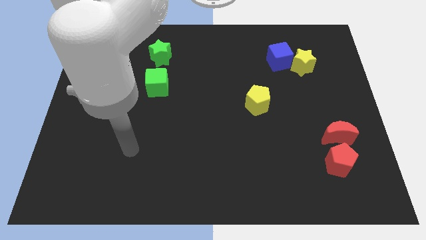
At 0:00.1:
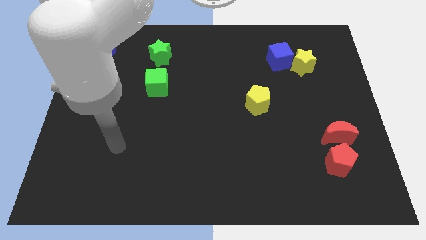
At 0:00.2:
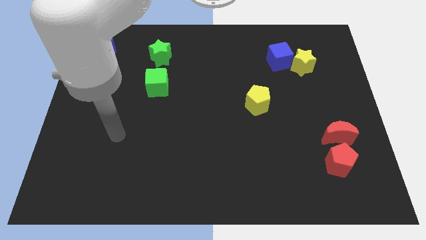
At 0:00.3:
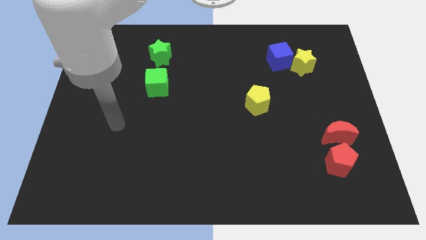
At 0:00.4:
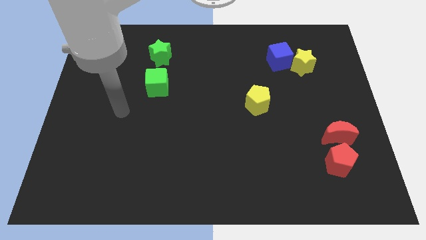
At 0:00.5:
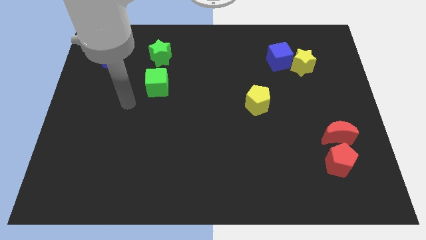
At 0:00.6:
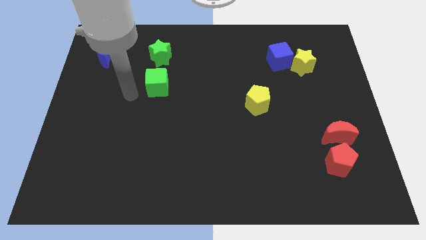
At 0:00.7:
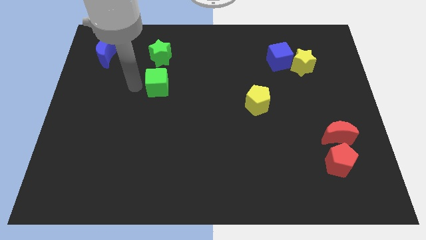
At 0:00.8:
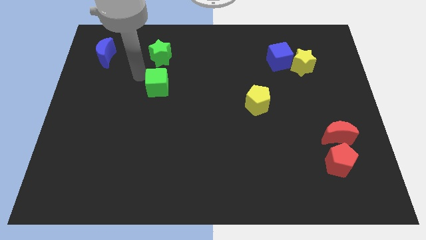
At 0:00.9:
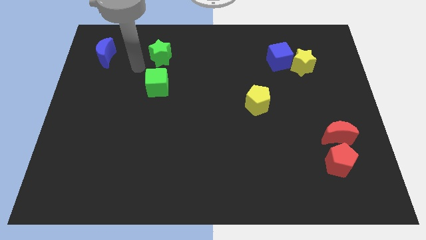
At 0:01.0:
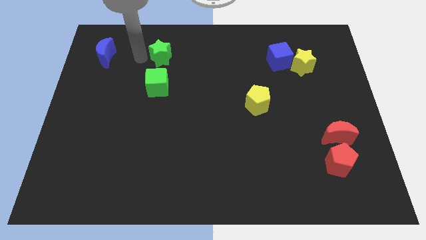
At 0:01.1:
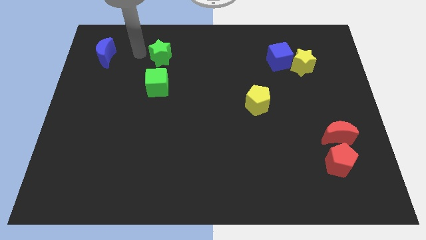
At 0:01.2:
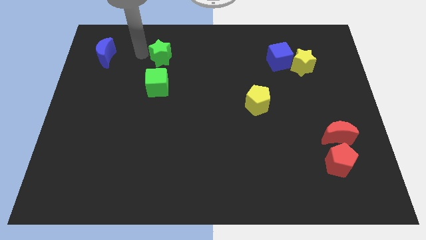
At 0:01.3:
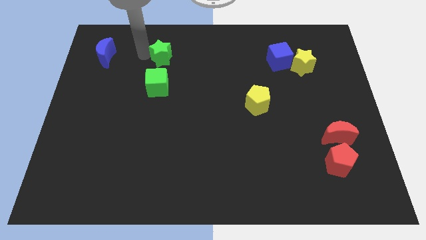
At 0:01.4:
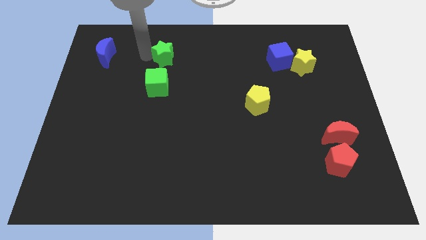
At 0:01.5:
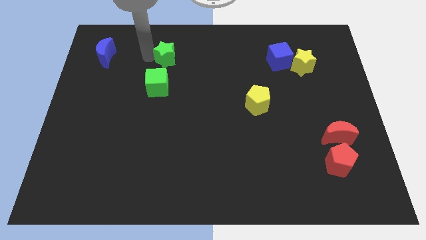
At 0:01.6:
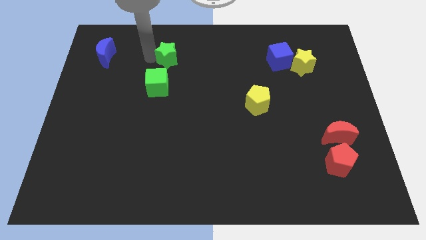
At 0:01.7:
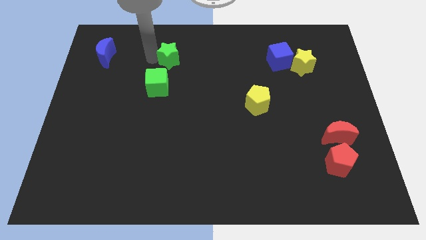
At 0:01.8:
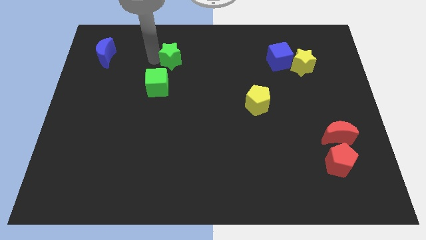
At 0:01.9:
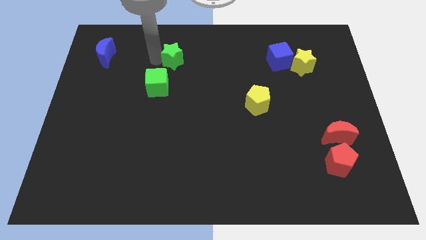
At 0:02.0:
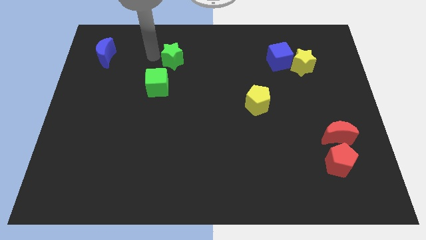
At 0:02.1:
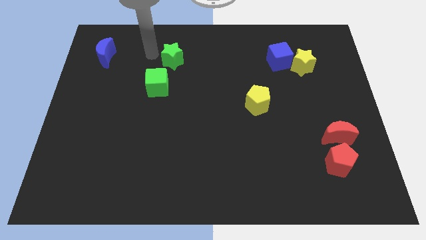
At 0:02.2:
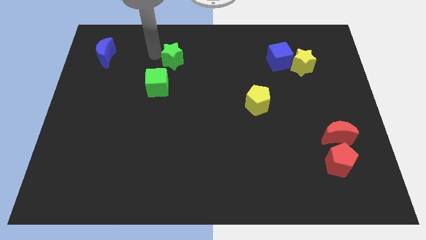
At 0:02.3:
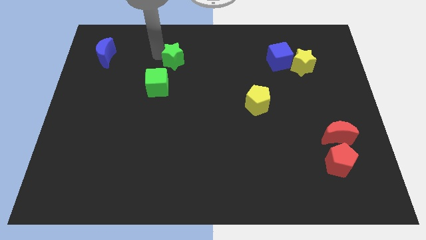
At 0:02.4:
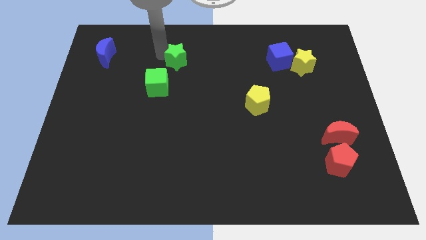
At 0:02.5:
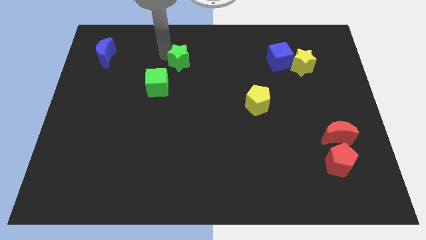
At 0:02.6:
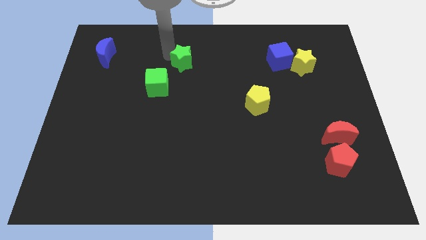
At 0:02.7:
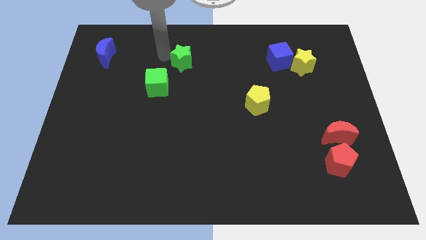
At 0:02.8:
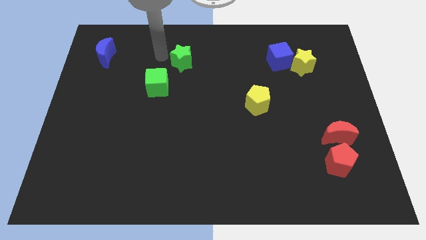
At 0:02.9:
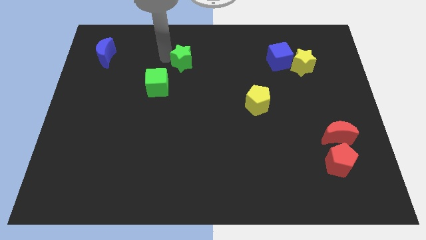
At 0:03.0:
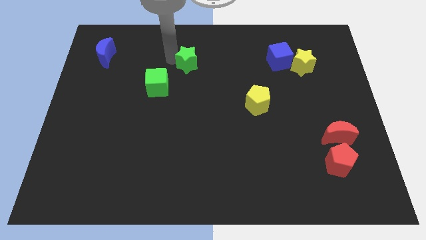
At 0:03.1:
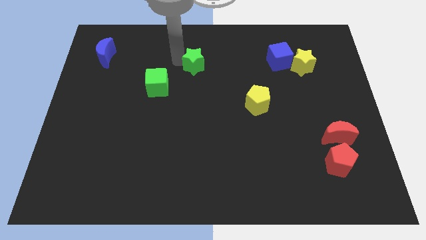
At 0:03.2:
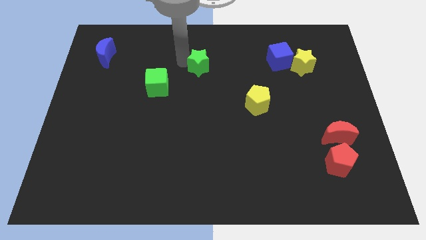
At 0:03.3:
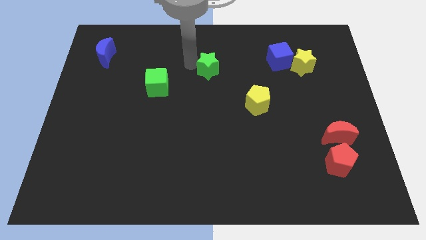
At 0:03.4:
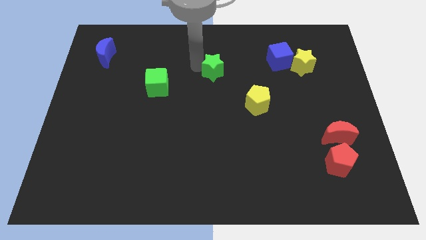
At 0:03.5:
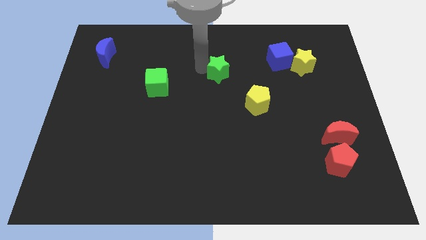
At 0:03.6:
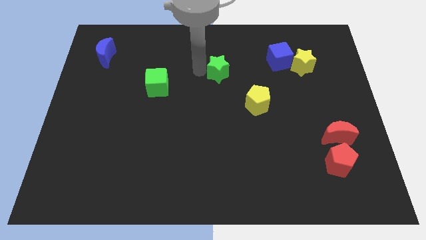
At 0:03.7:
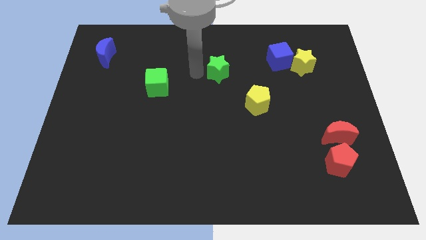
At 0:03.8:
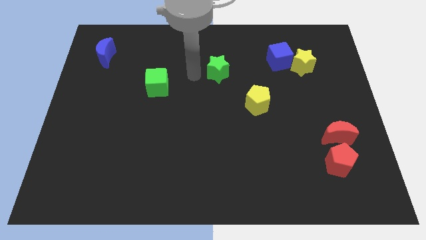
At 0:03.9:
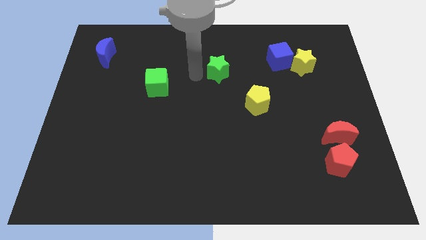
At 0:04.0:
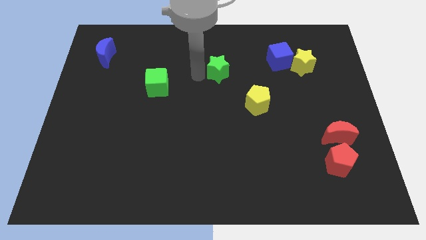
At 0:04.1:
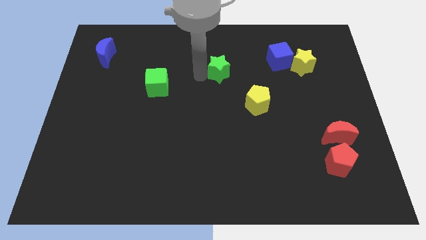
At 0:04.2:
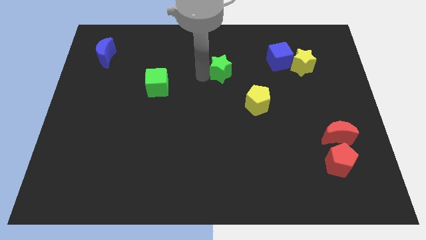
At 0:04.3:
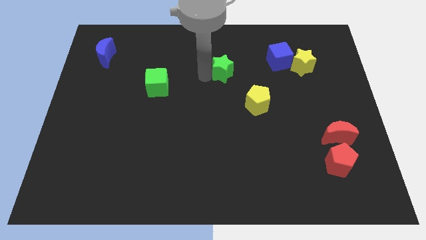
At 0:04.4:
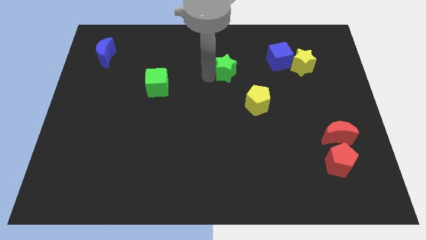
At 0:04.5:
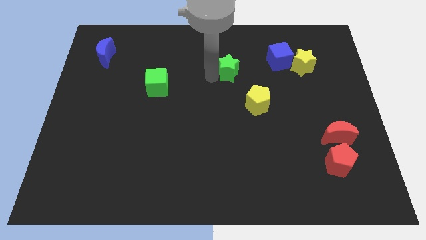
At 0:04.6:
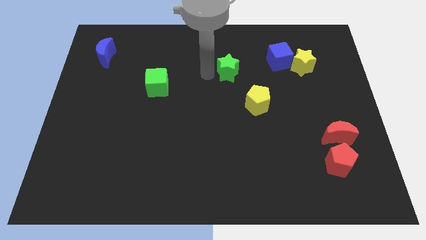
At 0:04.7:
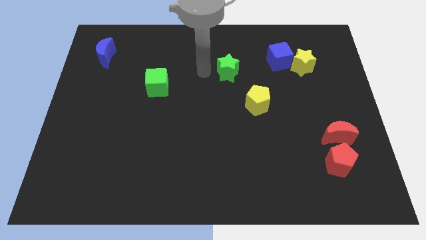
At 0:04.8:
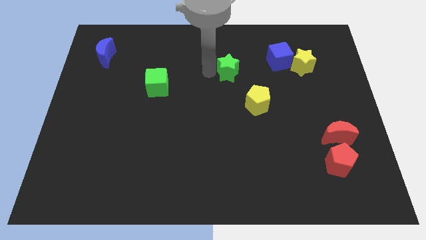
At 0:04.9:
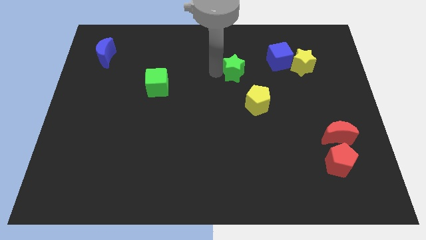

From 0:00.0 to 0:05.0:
put the green star to the top side of the yellow pentagon

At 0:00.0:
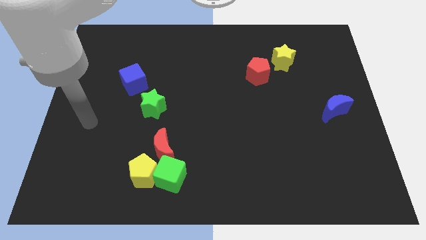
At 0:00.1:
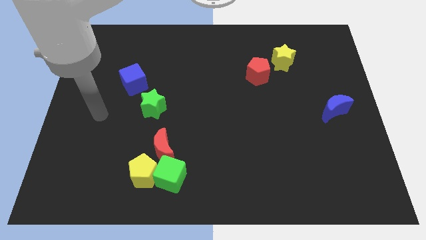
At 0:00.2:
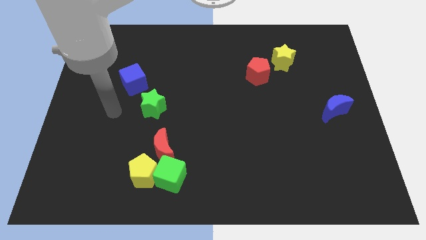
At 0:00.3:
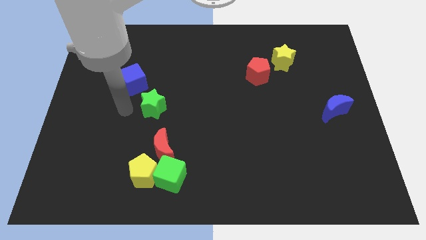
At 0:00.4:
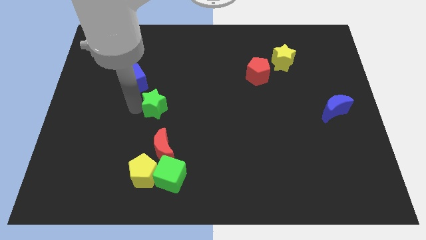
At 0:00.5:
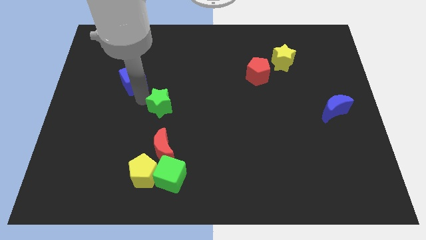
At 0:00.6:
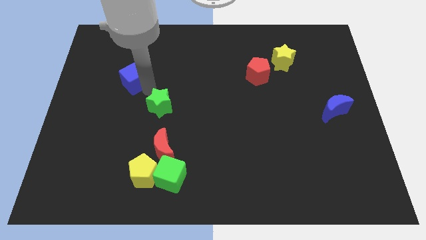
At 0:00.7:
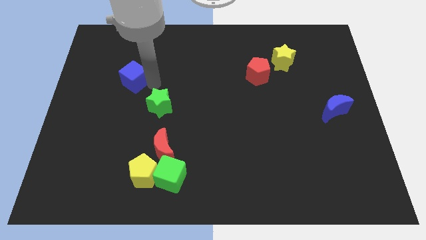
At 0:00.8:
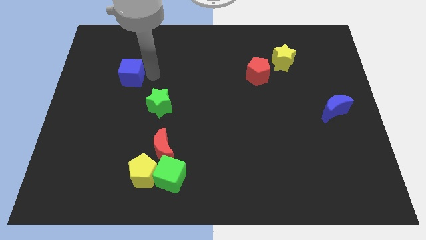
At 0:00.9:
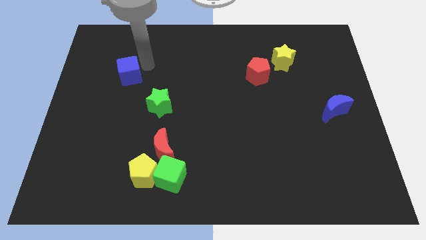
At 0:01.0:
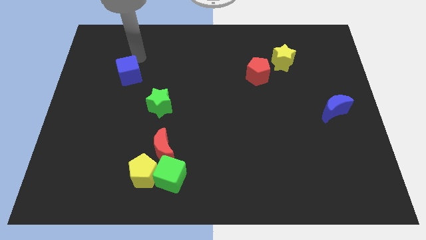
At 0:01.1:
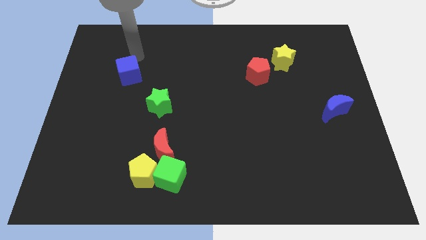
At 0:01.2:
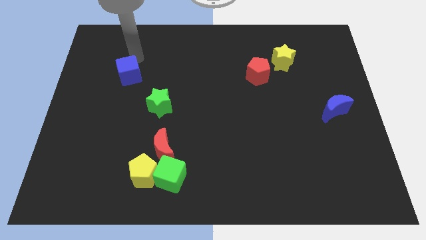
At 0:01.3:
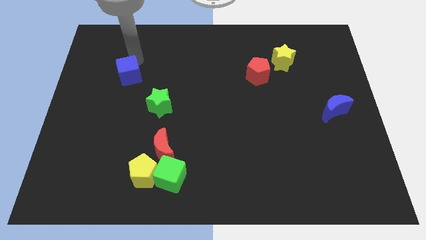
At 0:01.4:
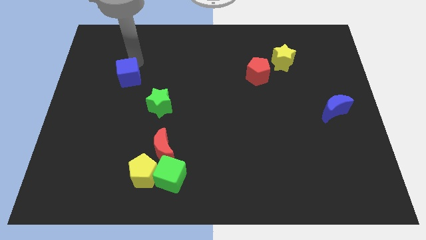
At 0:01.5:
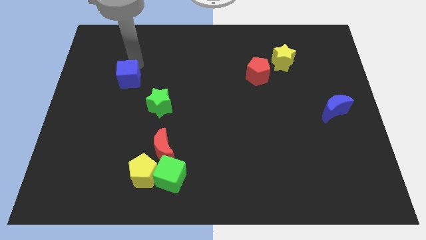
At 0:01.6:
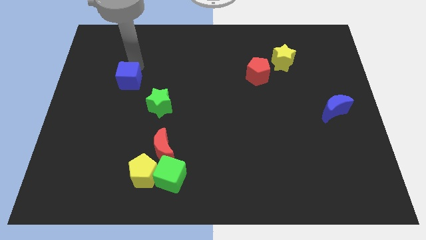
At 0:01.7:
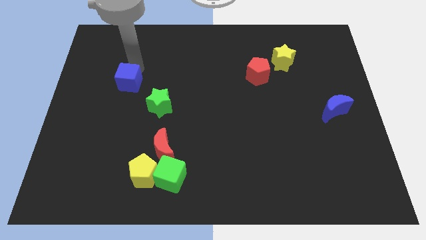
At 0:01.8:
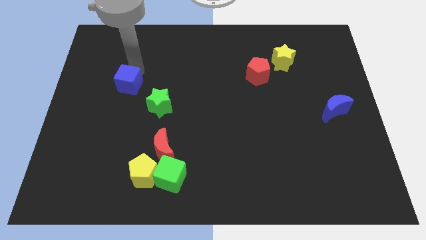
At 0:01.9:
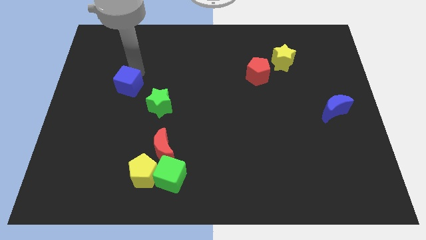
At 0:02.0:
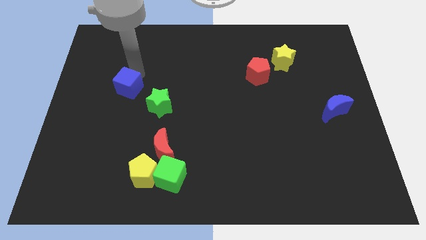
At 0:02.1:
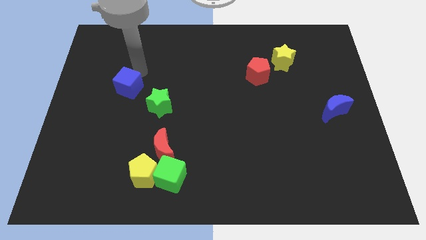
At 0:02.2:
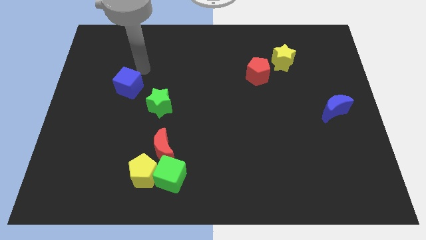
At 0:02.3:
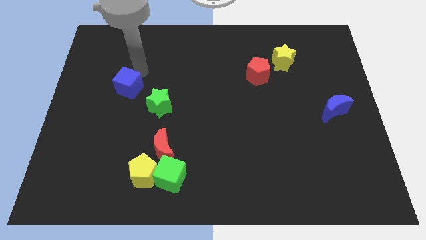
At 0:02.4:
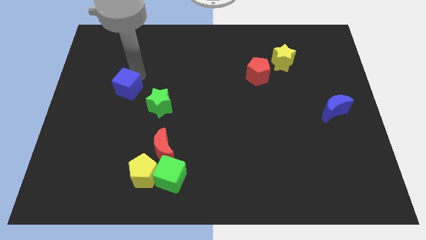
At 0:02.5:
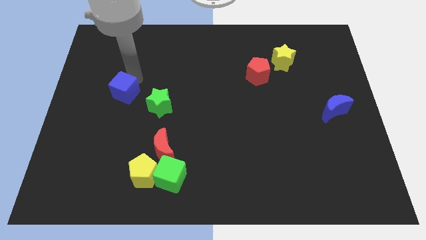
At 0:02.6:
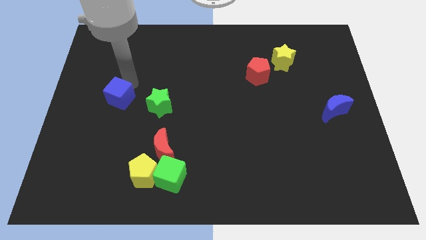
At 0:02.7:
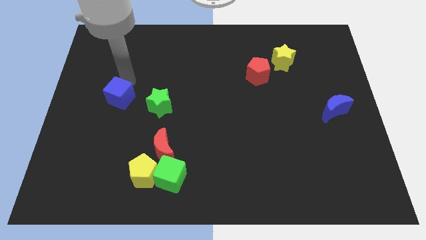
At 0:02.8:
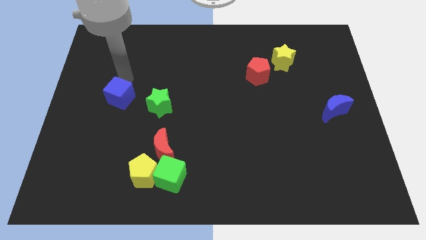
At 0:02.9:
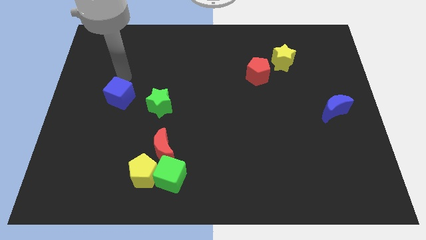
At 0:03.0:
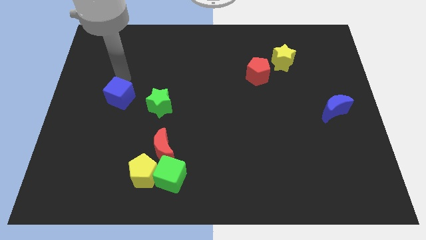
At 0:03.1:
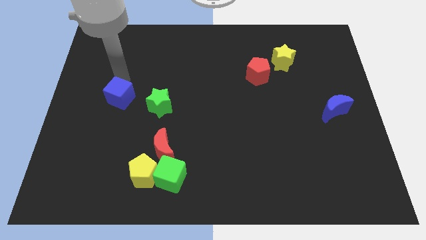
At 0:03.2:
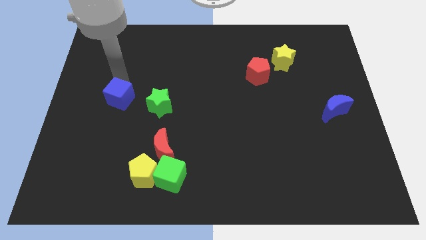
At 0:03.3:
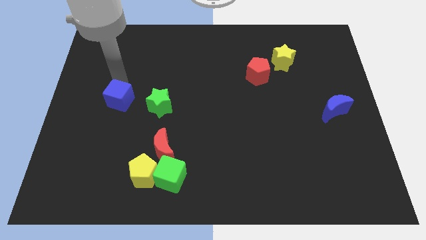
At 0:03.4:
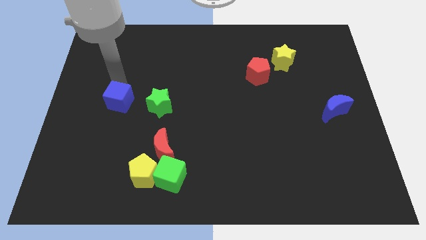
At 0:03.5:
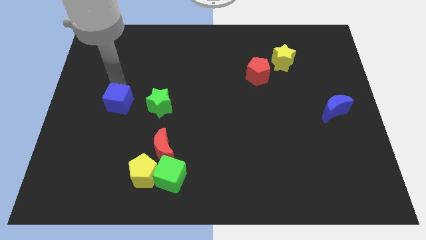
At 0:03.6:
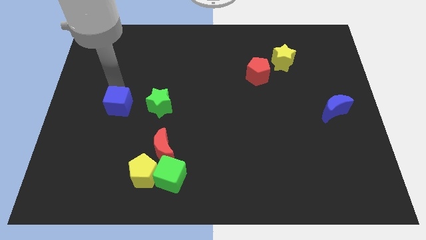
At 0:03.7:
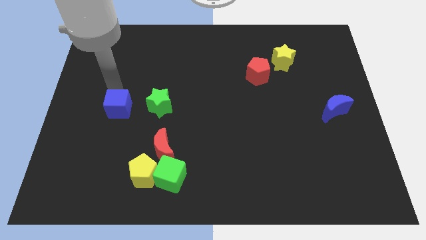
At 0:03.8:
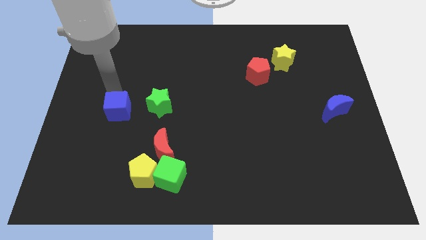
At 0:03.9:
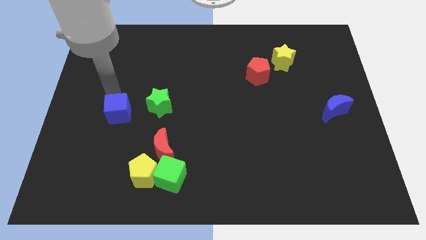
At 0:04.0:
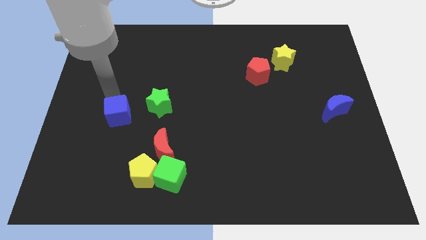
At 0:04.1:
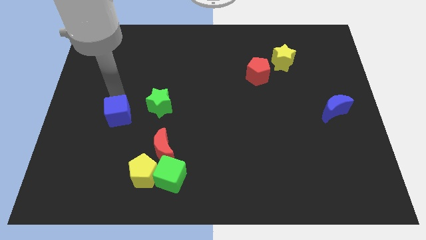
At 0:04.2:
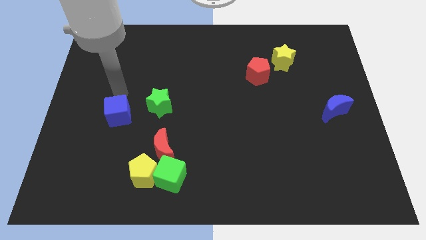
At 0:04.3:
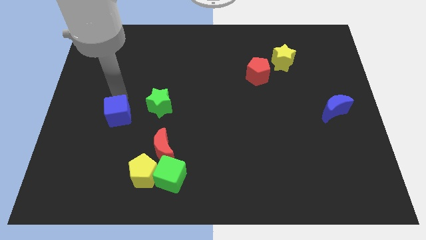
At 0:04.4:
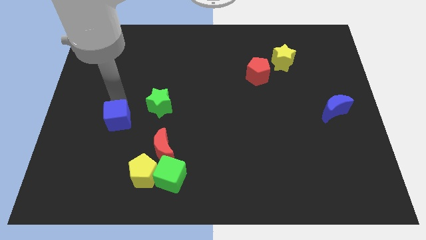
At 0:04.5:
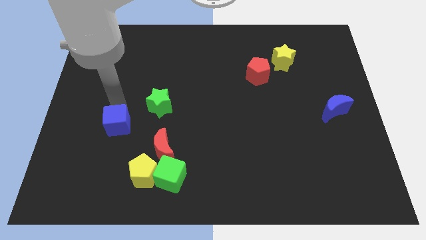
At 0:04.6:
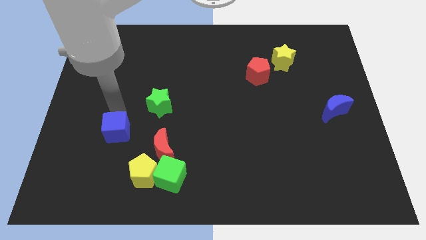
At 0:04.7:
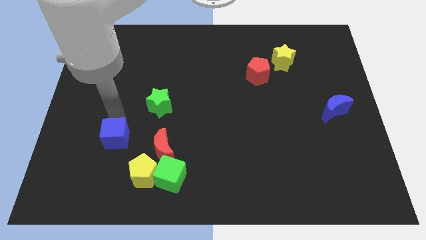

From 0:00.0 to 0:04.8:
slide the blue cube to the left of the red moon
